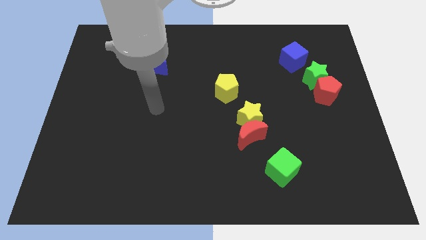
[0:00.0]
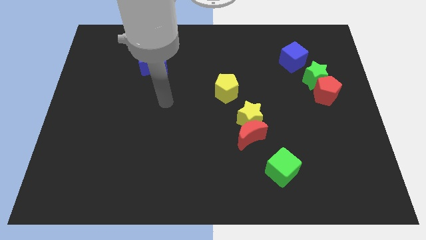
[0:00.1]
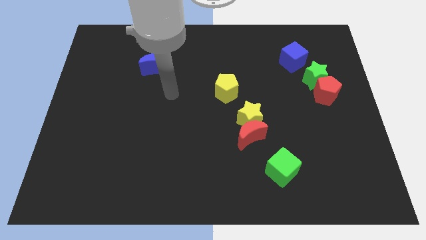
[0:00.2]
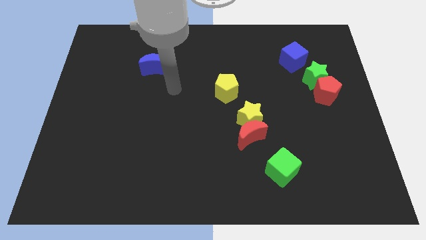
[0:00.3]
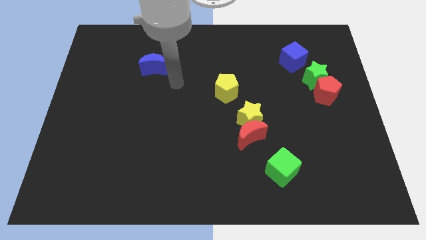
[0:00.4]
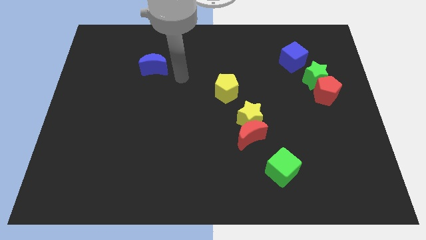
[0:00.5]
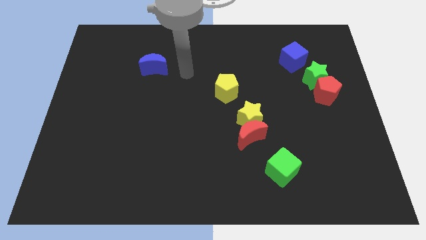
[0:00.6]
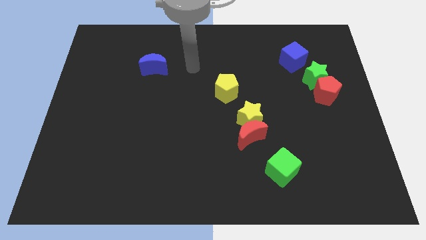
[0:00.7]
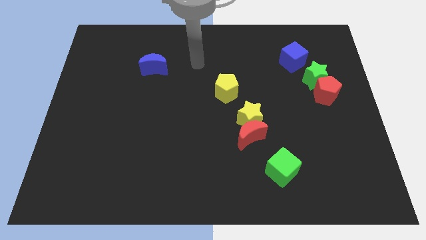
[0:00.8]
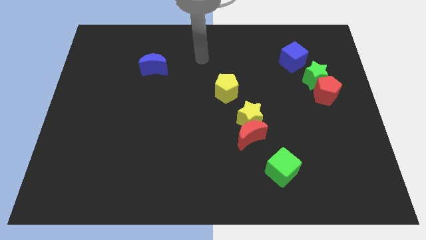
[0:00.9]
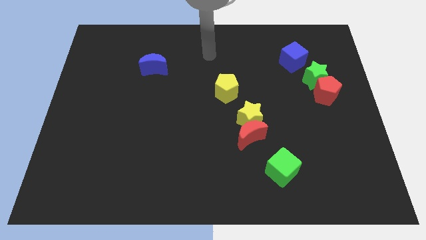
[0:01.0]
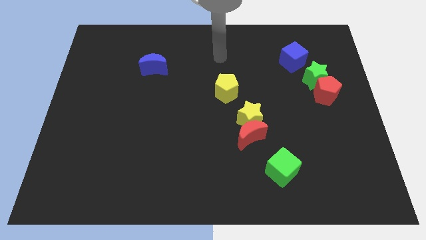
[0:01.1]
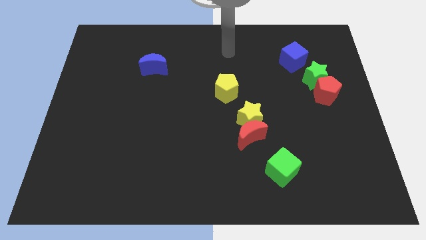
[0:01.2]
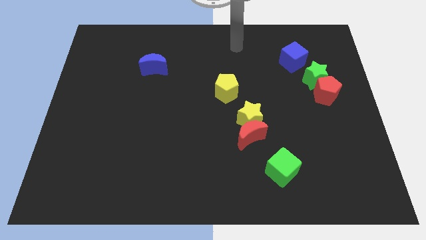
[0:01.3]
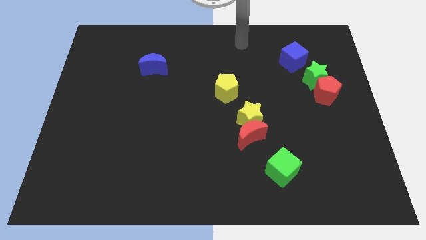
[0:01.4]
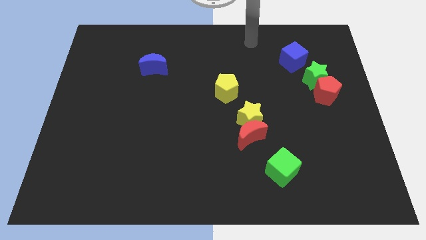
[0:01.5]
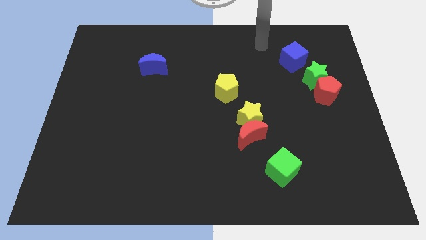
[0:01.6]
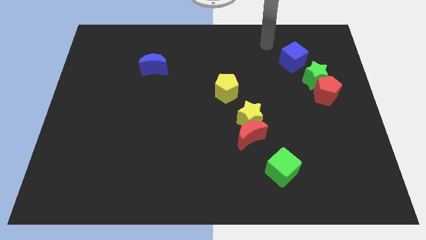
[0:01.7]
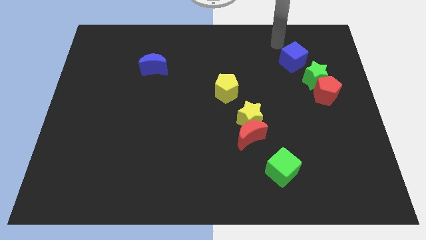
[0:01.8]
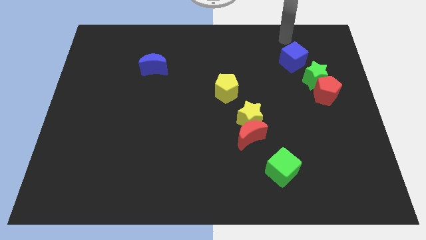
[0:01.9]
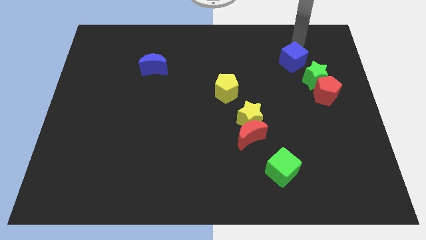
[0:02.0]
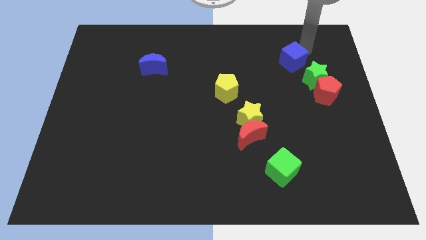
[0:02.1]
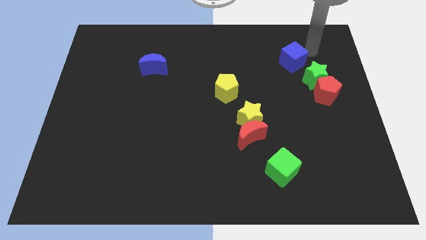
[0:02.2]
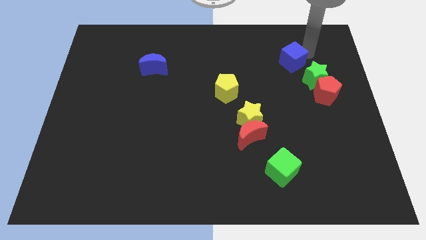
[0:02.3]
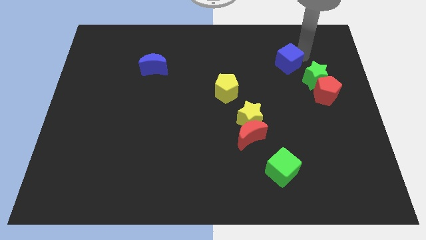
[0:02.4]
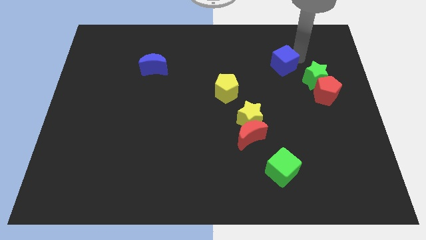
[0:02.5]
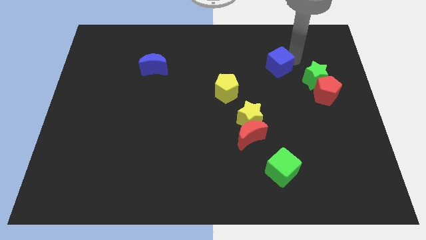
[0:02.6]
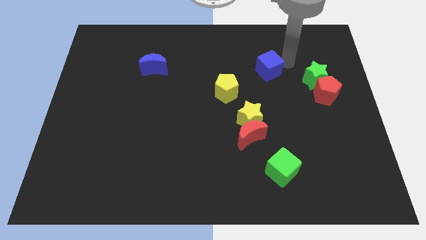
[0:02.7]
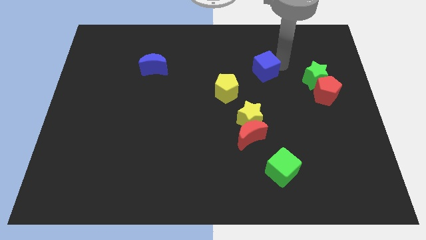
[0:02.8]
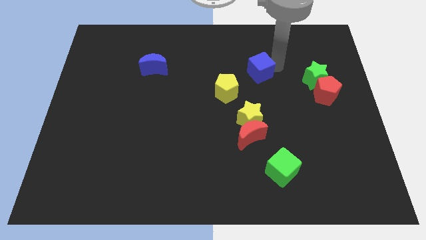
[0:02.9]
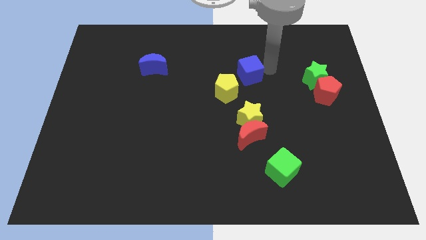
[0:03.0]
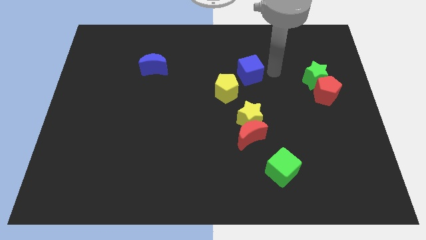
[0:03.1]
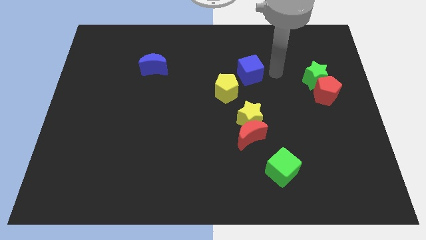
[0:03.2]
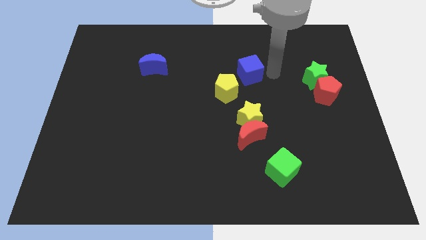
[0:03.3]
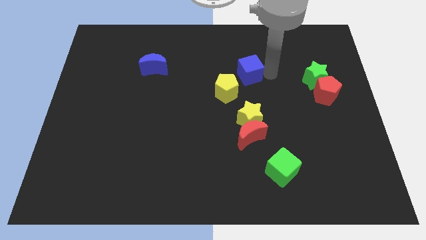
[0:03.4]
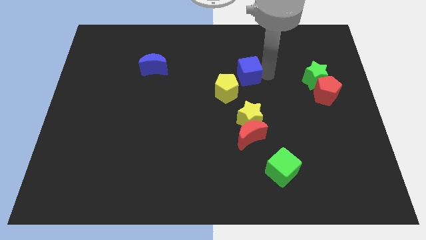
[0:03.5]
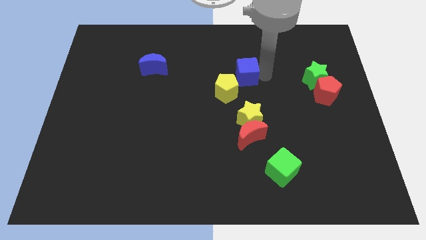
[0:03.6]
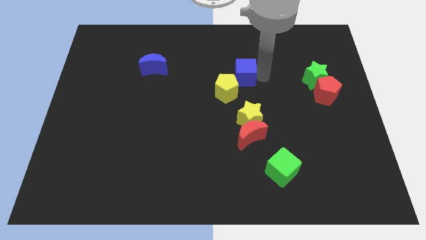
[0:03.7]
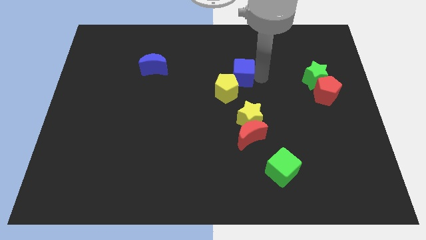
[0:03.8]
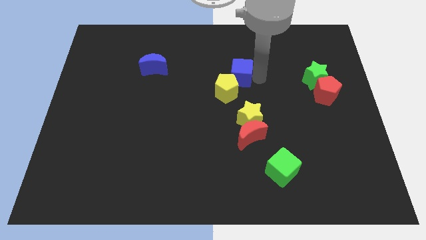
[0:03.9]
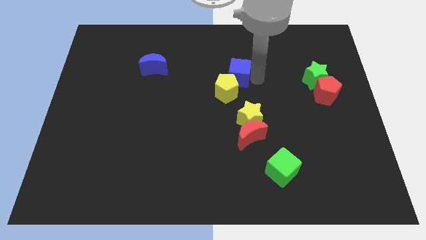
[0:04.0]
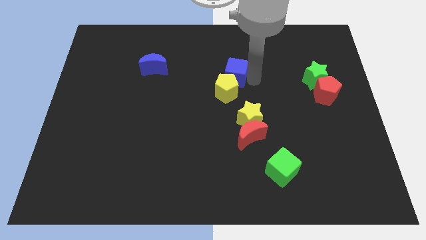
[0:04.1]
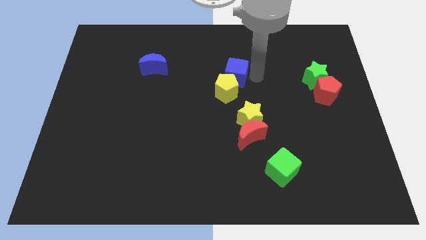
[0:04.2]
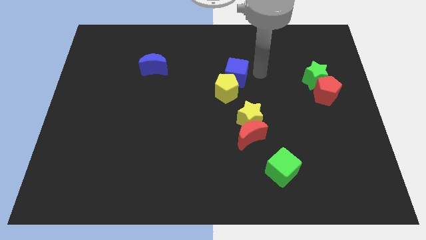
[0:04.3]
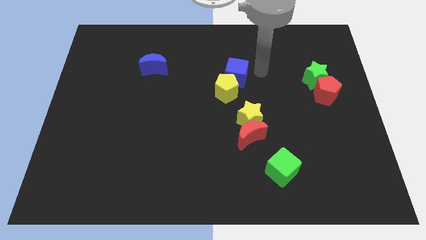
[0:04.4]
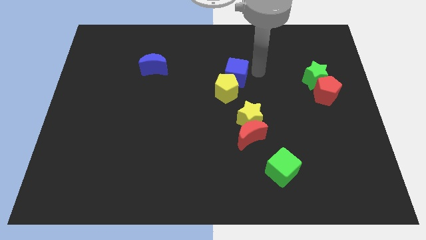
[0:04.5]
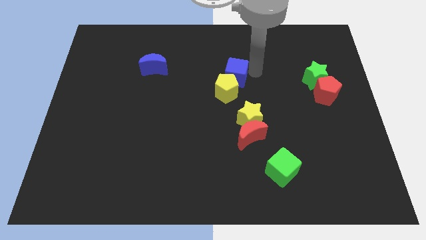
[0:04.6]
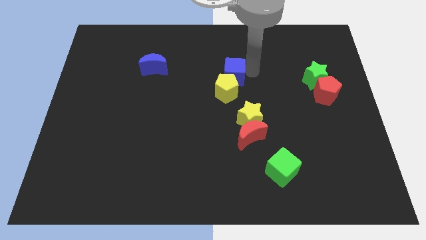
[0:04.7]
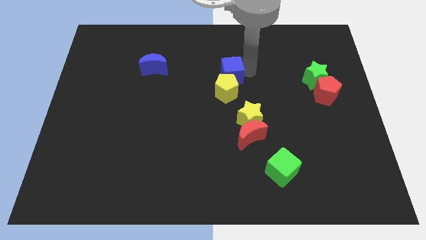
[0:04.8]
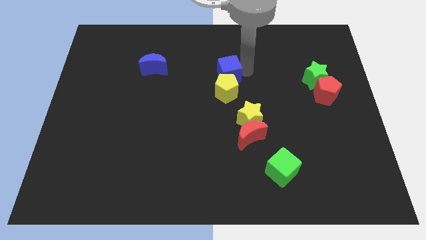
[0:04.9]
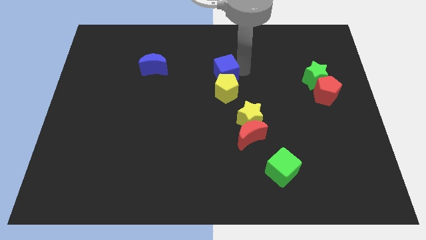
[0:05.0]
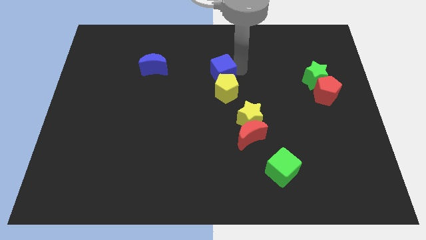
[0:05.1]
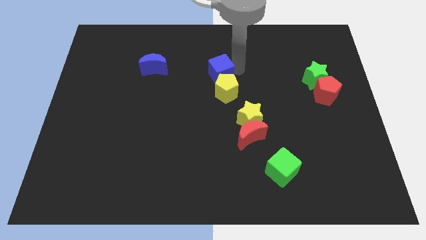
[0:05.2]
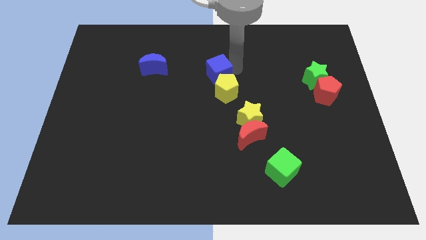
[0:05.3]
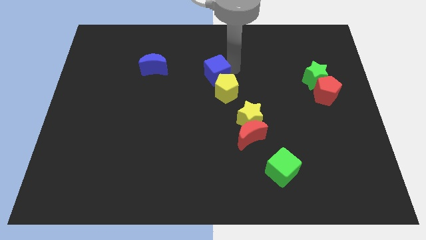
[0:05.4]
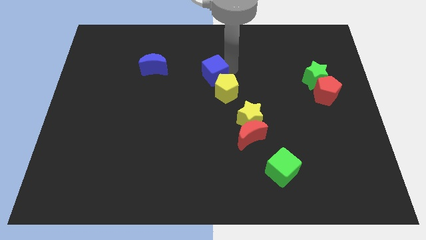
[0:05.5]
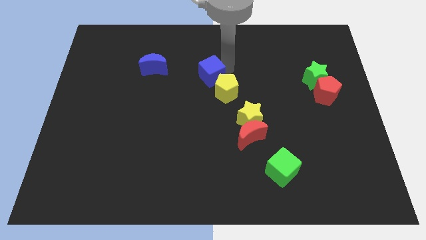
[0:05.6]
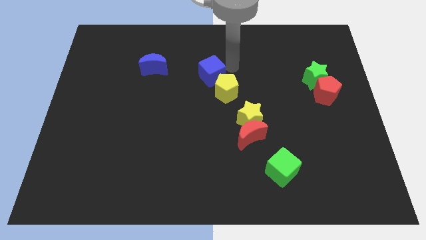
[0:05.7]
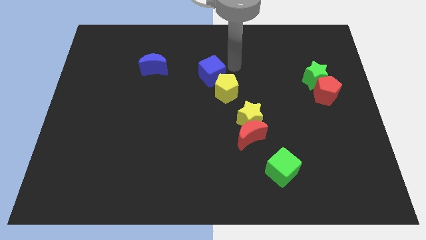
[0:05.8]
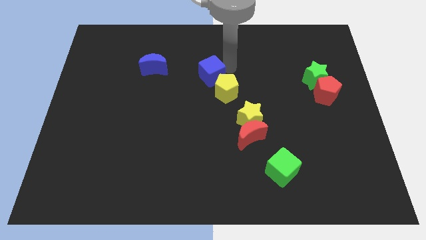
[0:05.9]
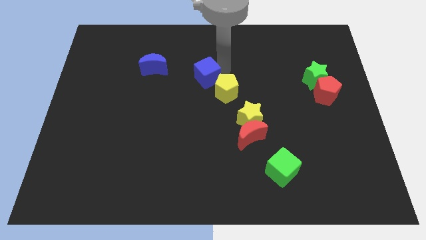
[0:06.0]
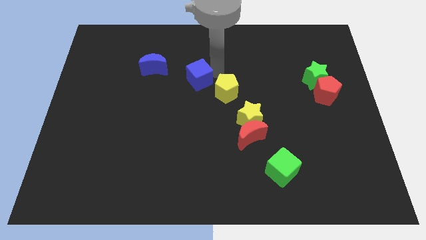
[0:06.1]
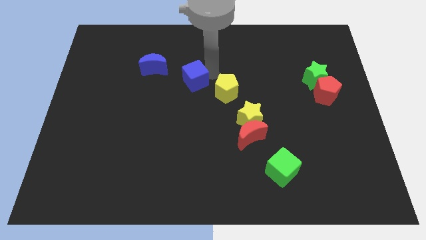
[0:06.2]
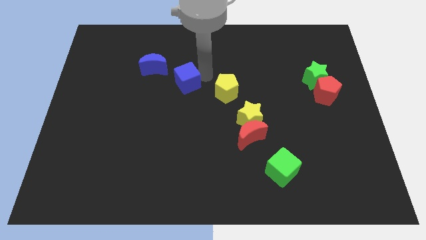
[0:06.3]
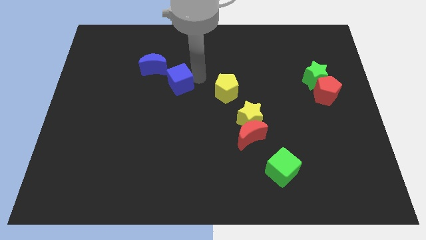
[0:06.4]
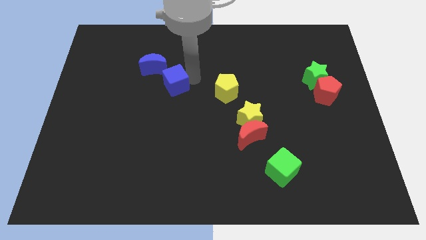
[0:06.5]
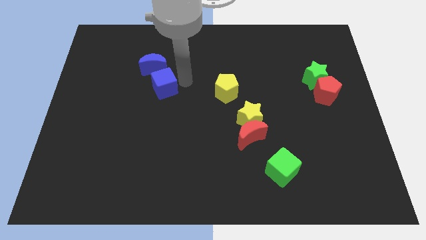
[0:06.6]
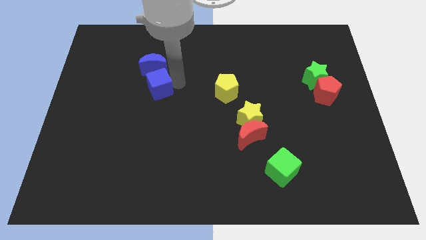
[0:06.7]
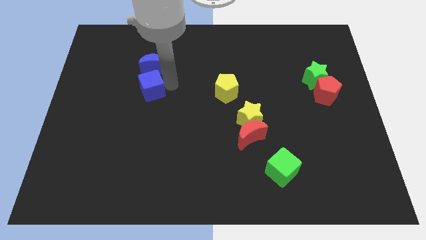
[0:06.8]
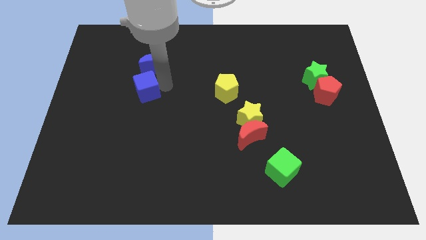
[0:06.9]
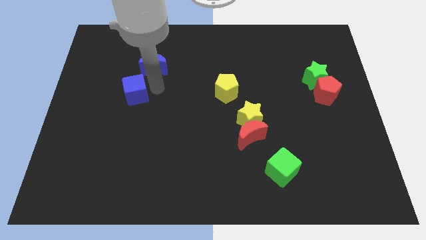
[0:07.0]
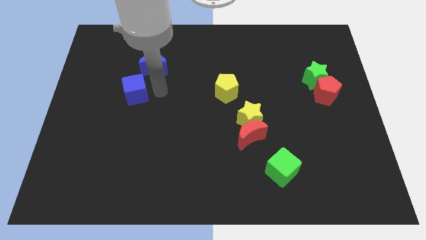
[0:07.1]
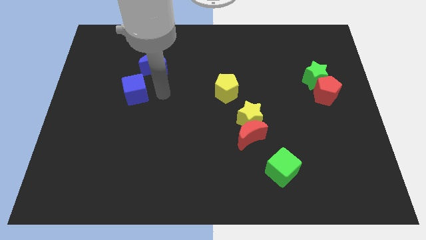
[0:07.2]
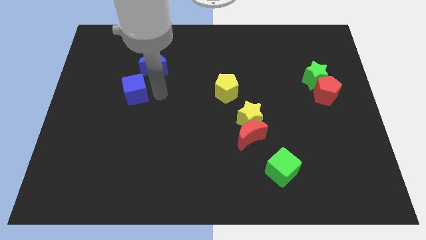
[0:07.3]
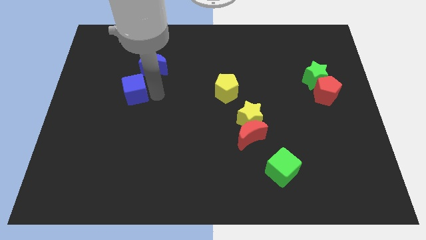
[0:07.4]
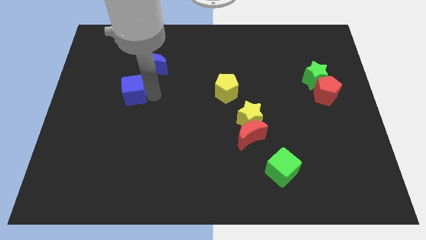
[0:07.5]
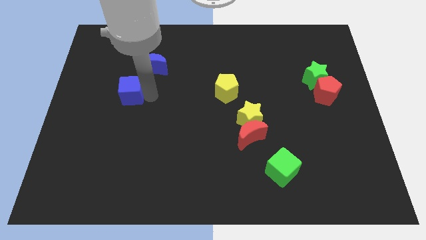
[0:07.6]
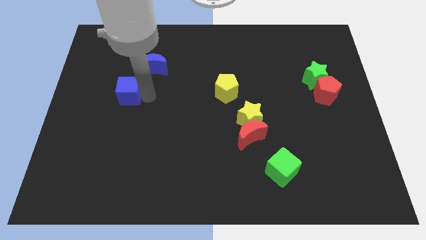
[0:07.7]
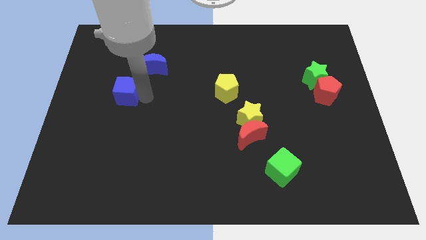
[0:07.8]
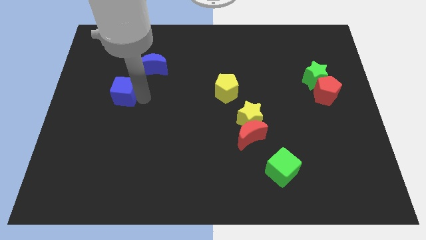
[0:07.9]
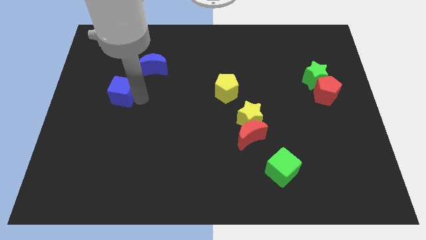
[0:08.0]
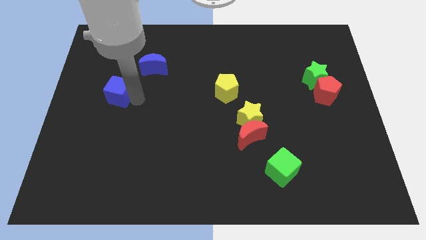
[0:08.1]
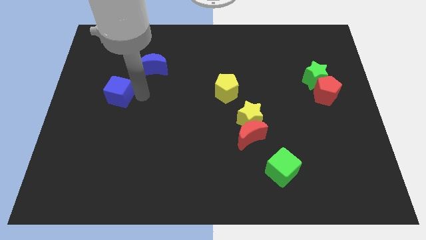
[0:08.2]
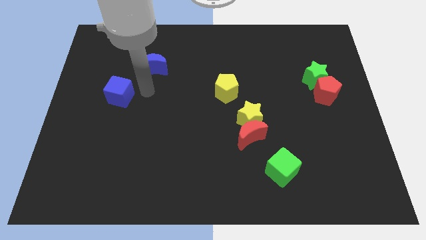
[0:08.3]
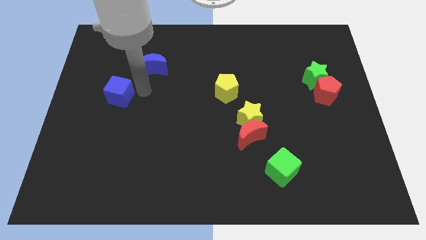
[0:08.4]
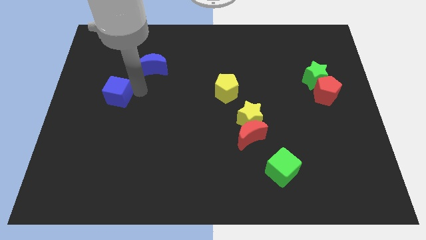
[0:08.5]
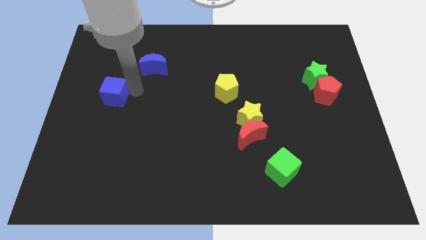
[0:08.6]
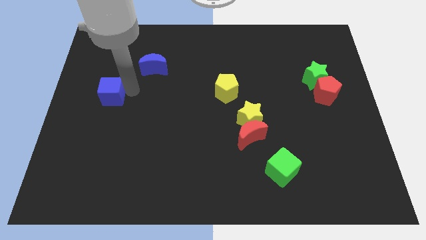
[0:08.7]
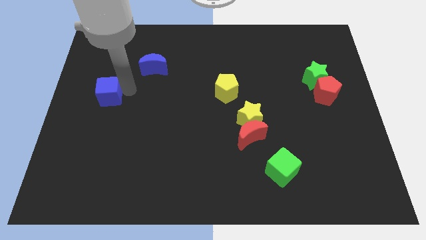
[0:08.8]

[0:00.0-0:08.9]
move the blue cube to the center left
